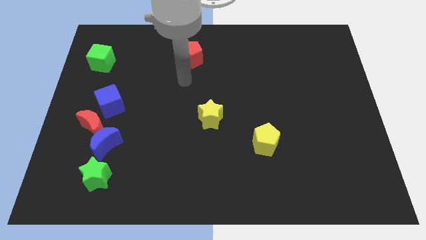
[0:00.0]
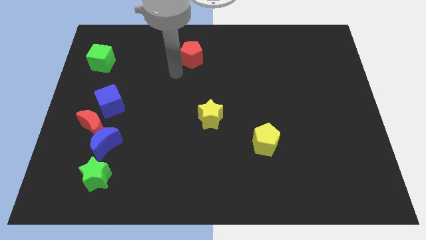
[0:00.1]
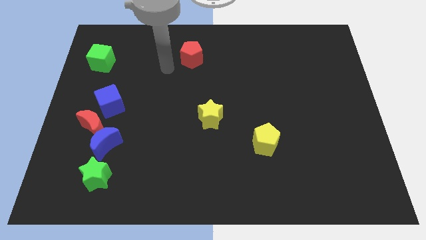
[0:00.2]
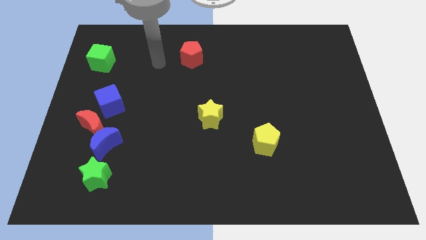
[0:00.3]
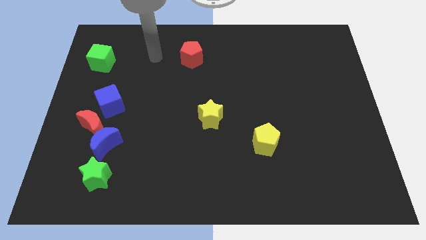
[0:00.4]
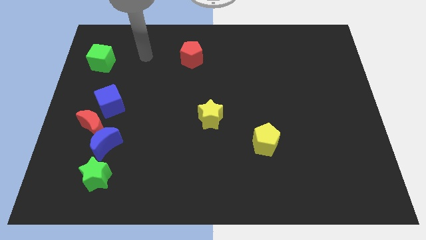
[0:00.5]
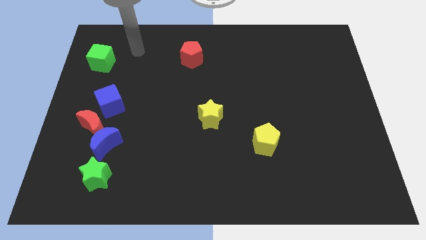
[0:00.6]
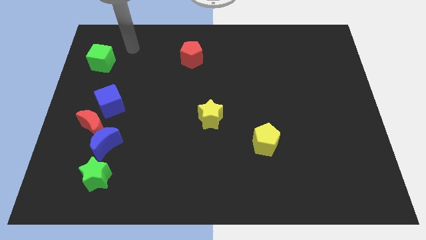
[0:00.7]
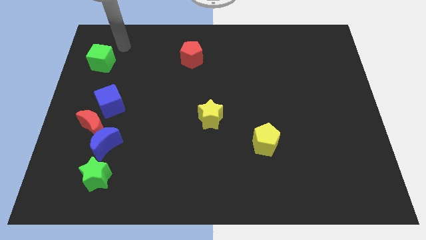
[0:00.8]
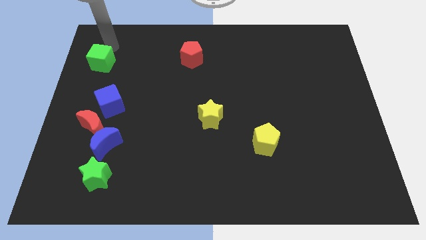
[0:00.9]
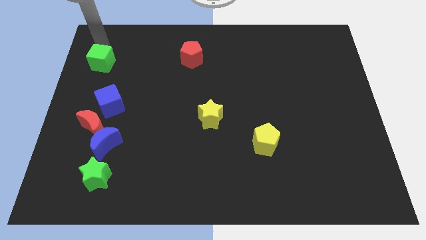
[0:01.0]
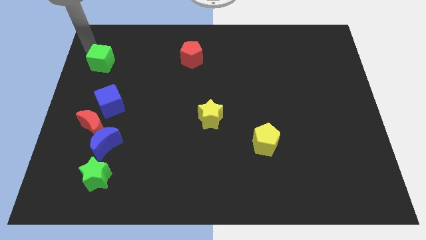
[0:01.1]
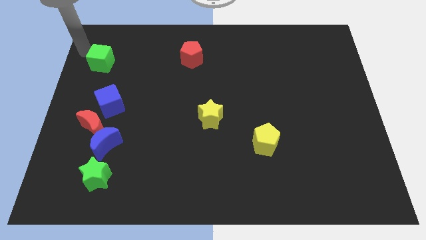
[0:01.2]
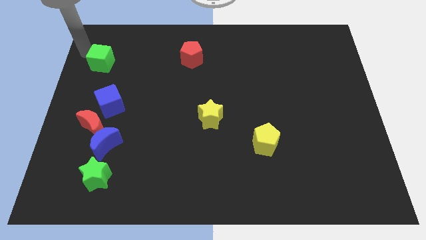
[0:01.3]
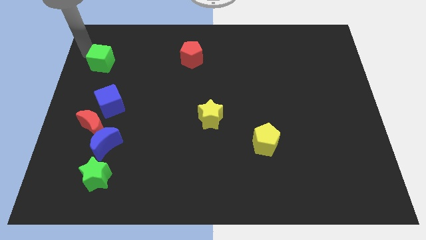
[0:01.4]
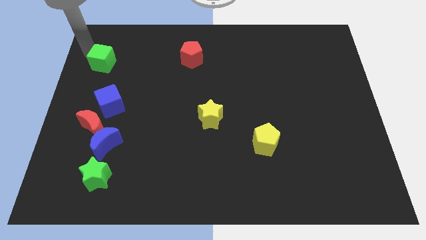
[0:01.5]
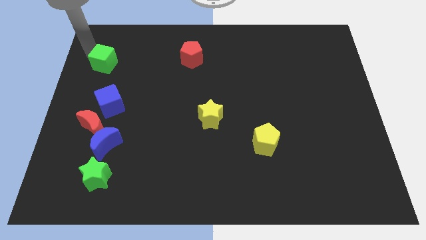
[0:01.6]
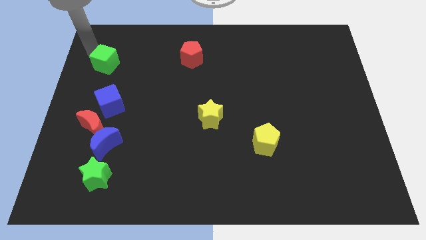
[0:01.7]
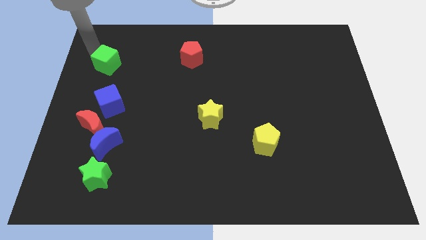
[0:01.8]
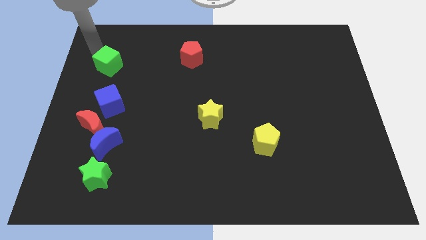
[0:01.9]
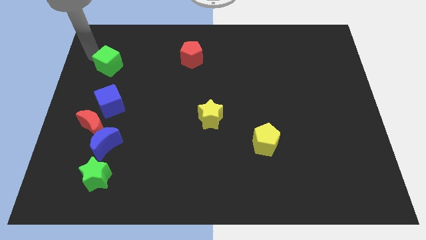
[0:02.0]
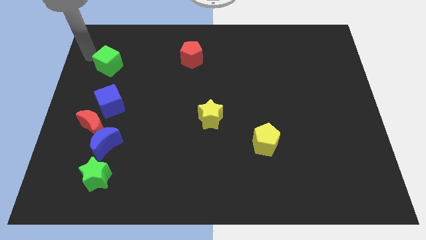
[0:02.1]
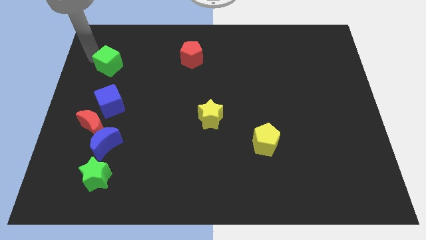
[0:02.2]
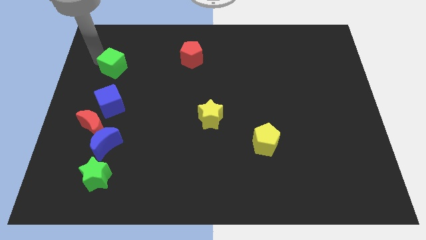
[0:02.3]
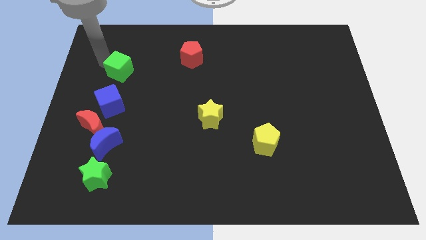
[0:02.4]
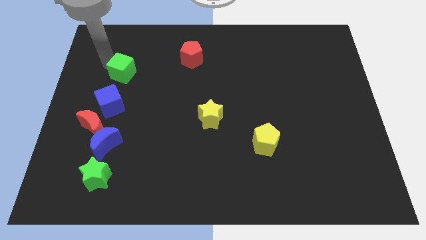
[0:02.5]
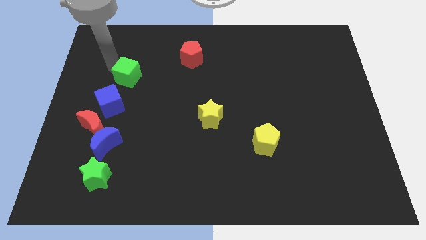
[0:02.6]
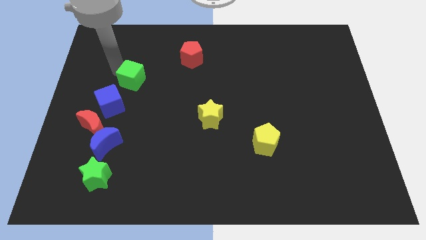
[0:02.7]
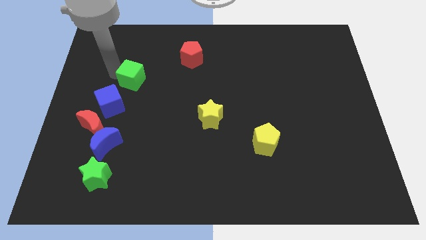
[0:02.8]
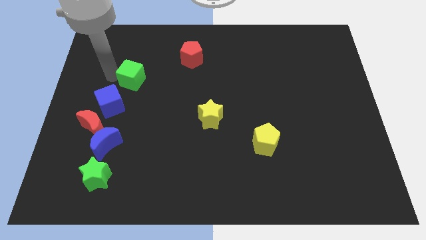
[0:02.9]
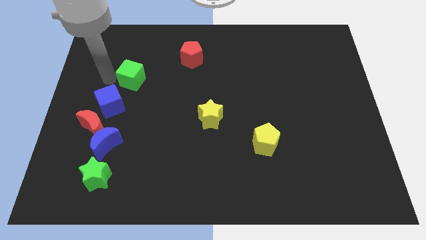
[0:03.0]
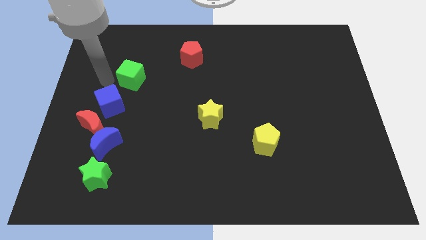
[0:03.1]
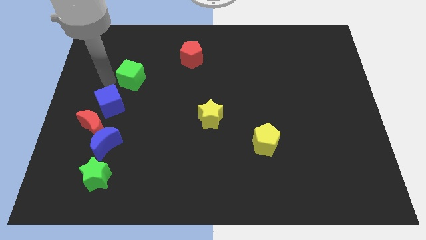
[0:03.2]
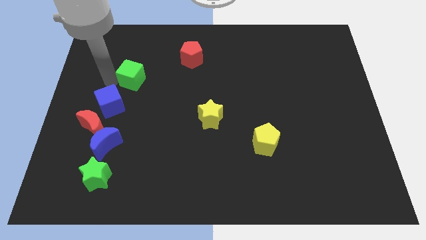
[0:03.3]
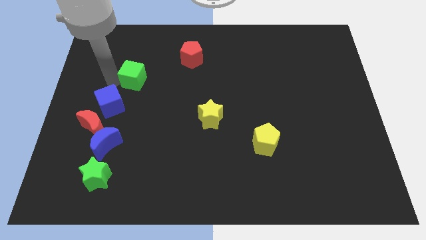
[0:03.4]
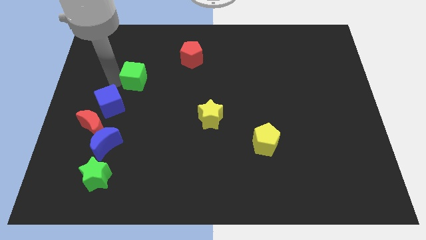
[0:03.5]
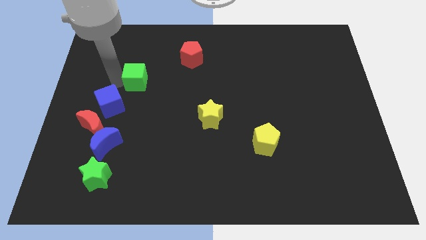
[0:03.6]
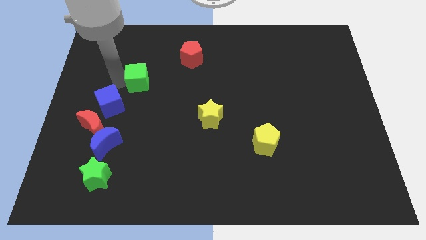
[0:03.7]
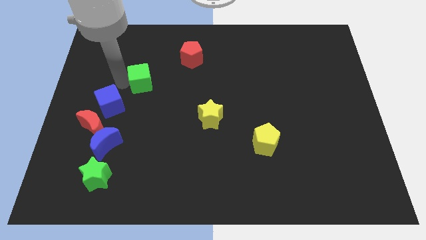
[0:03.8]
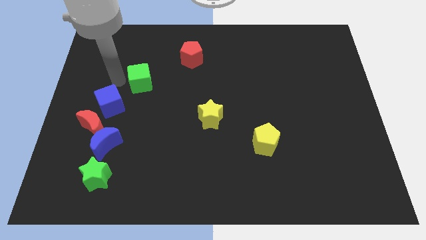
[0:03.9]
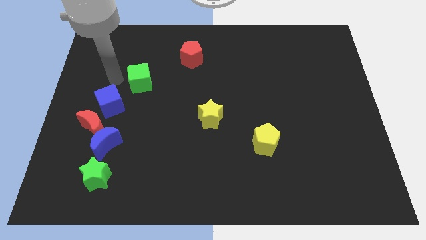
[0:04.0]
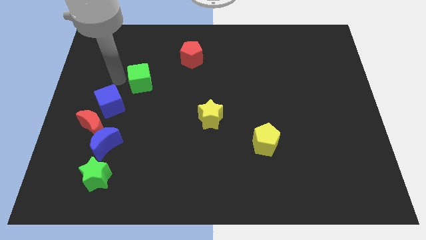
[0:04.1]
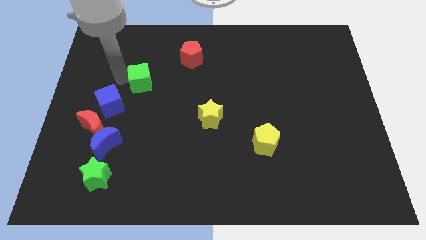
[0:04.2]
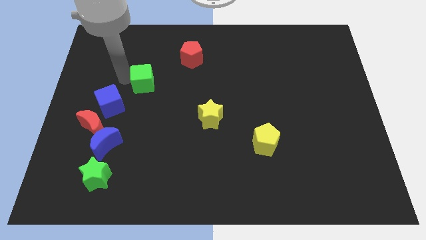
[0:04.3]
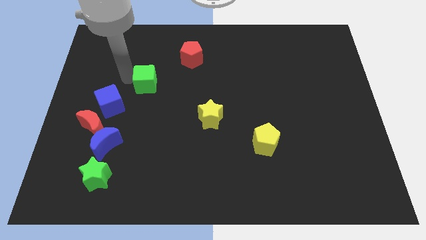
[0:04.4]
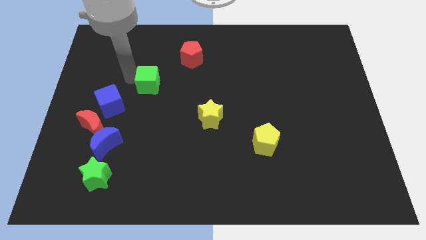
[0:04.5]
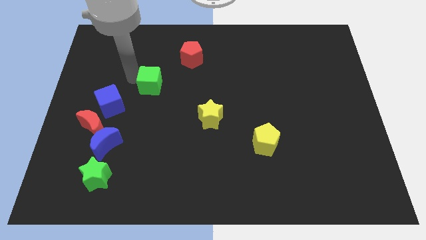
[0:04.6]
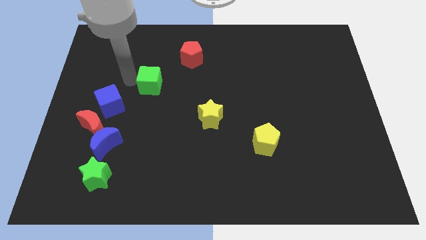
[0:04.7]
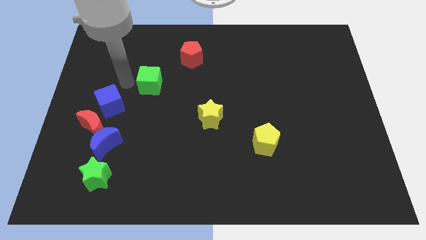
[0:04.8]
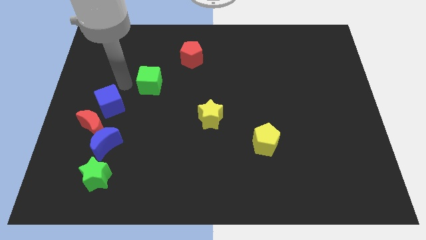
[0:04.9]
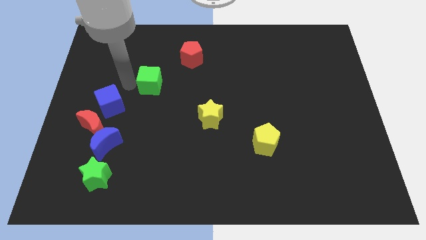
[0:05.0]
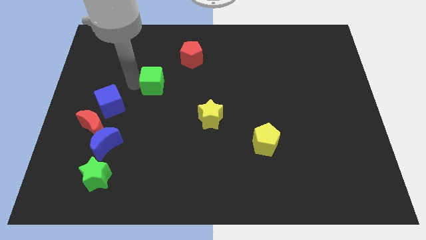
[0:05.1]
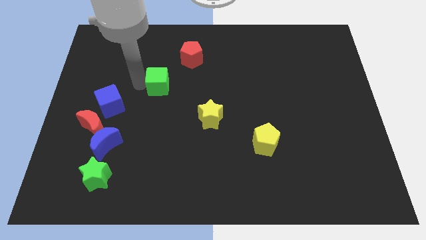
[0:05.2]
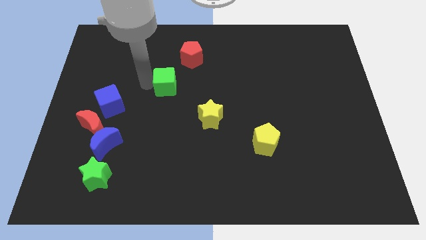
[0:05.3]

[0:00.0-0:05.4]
push the green cube to the center of the board
